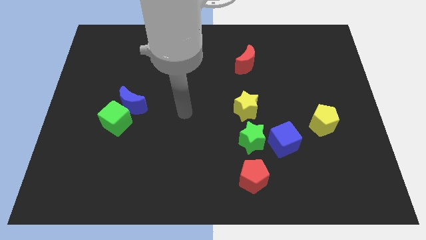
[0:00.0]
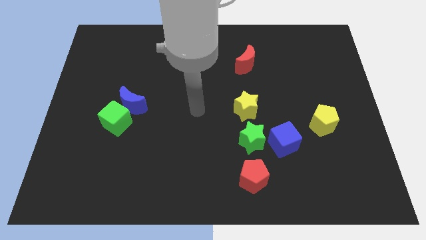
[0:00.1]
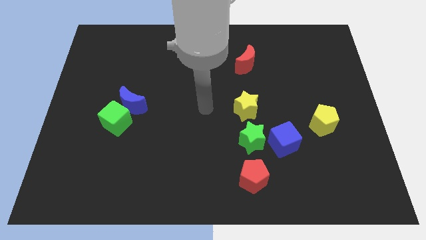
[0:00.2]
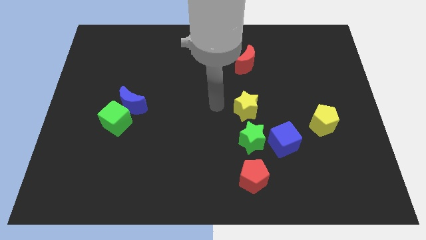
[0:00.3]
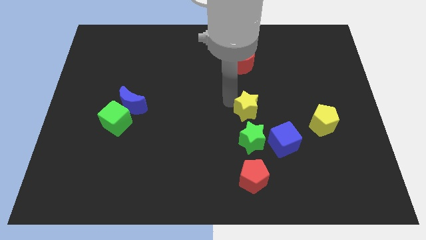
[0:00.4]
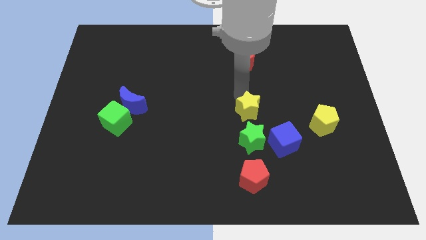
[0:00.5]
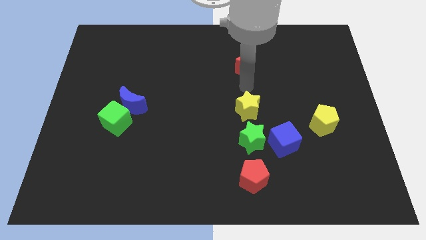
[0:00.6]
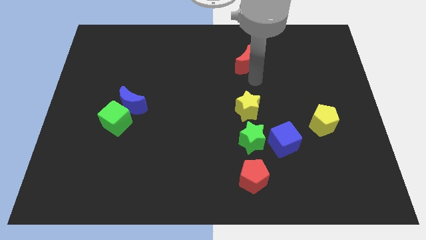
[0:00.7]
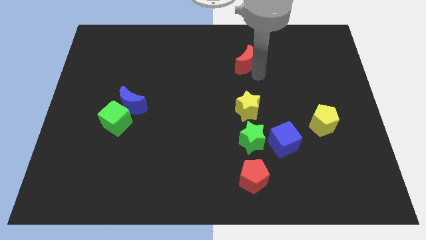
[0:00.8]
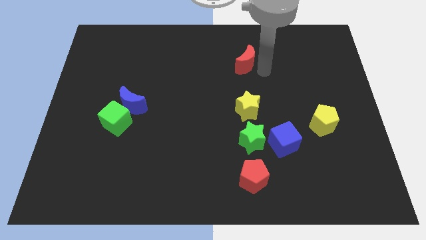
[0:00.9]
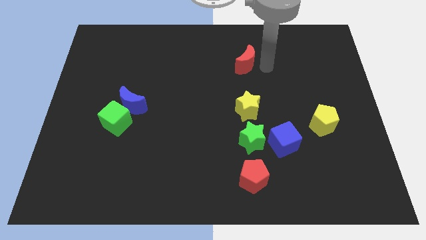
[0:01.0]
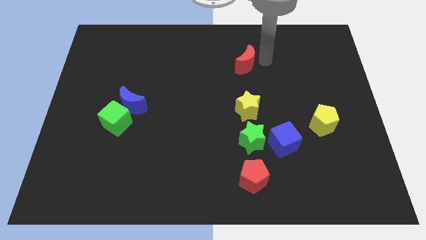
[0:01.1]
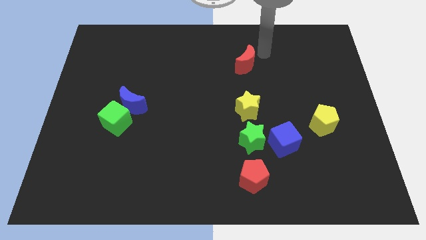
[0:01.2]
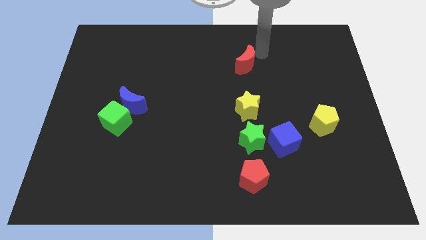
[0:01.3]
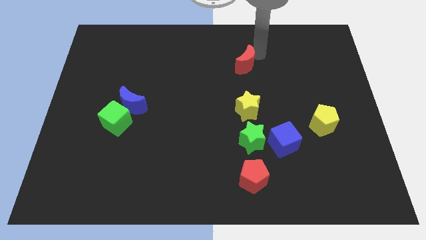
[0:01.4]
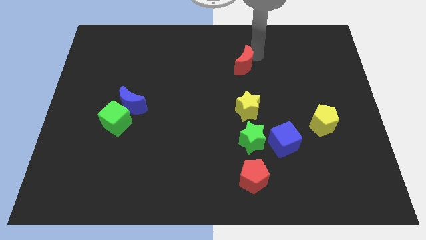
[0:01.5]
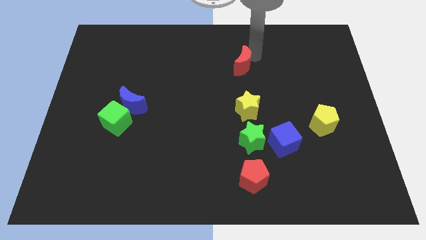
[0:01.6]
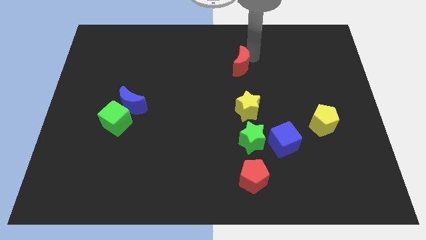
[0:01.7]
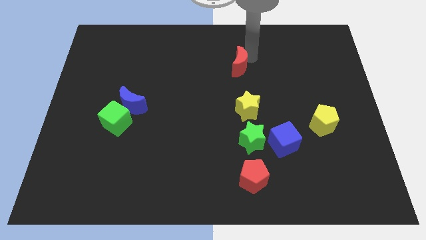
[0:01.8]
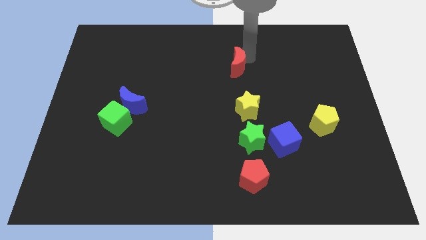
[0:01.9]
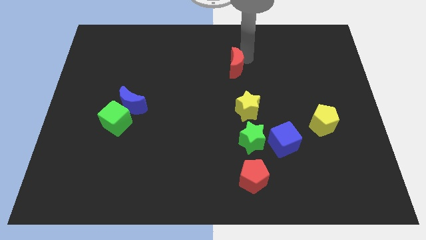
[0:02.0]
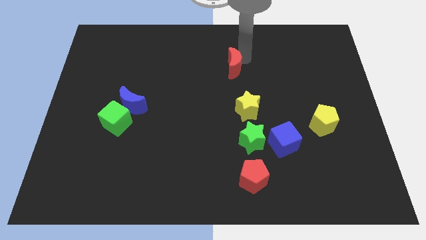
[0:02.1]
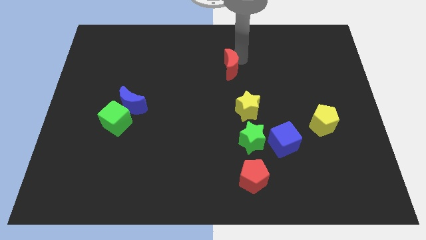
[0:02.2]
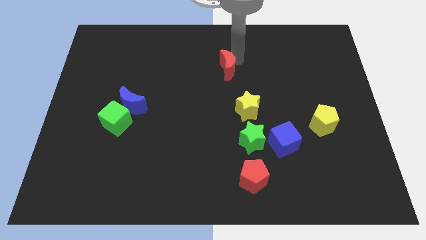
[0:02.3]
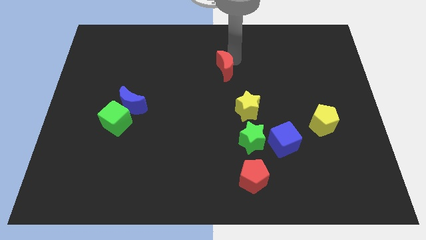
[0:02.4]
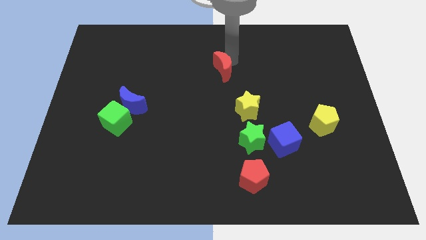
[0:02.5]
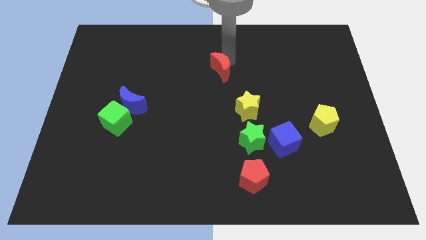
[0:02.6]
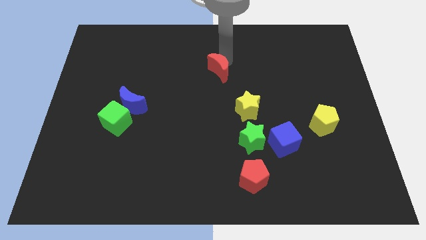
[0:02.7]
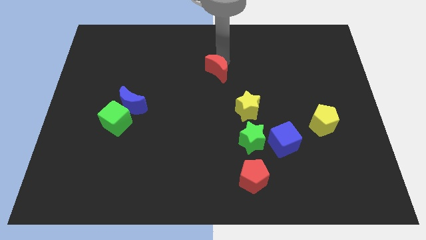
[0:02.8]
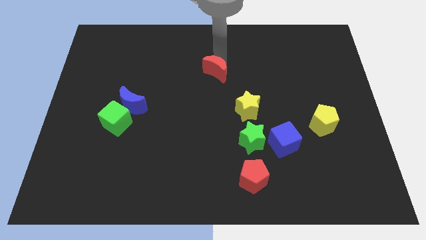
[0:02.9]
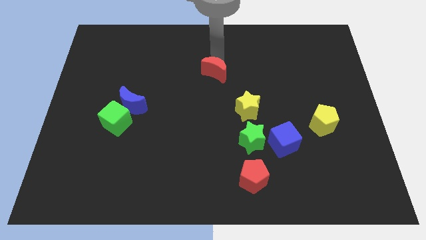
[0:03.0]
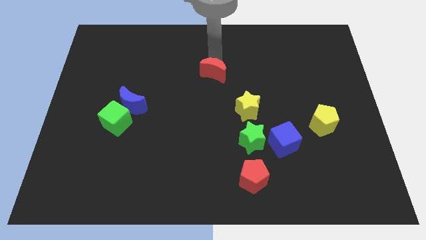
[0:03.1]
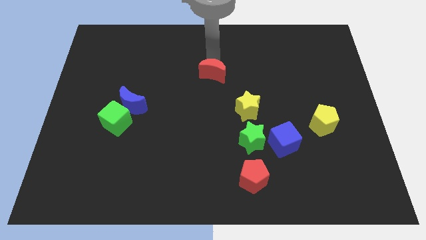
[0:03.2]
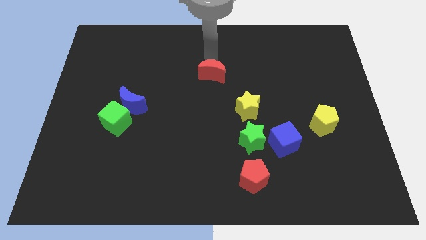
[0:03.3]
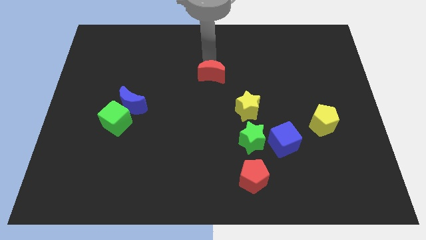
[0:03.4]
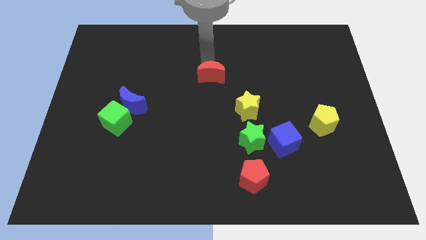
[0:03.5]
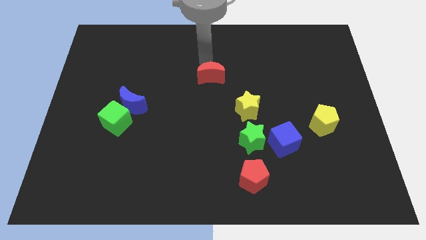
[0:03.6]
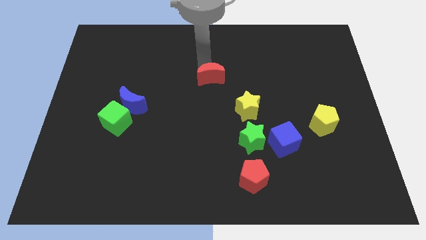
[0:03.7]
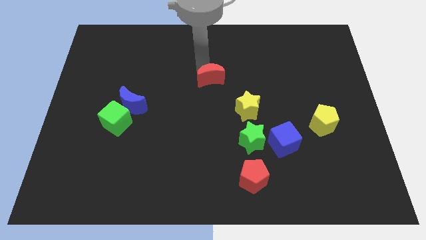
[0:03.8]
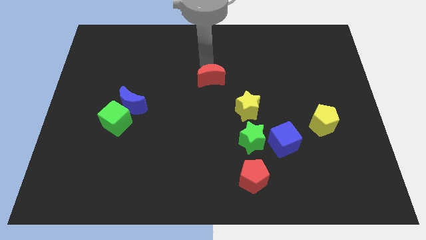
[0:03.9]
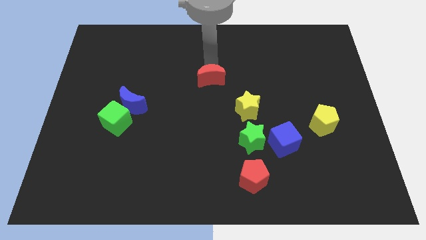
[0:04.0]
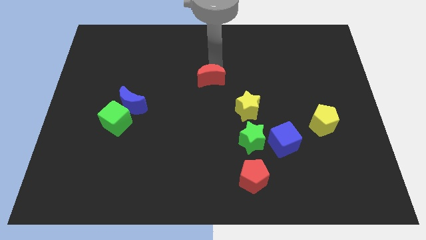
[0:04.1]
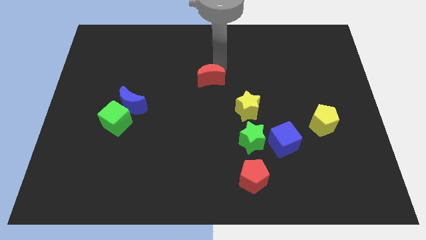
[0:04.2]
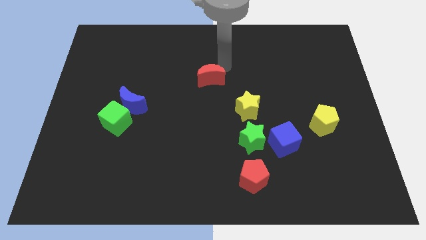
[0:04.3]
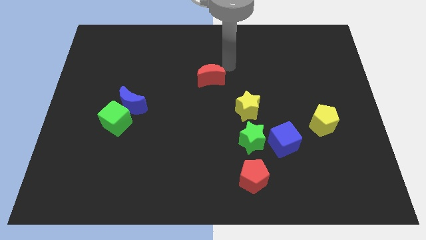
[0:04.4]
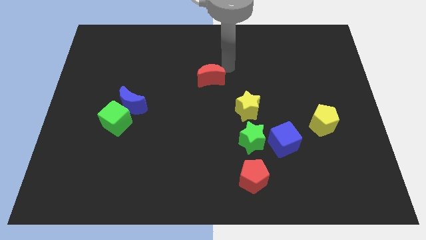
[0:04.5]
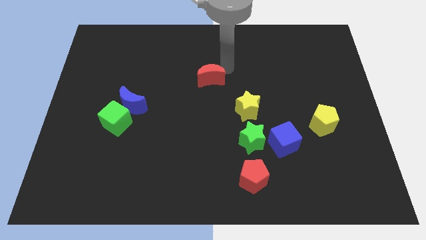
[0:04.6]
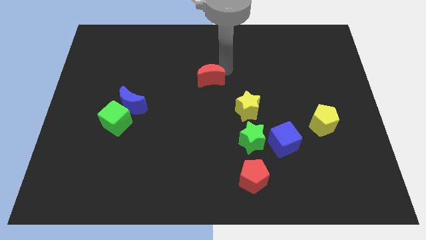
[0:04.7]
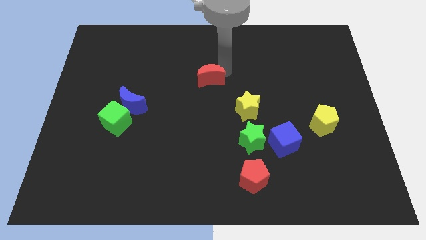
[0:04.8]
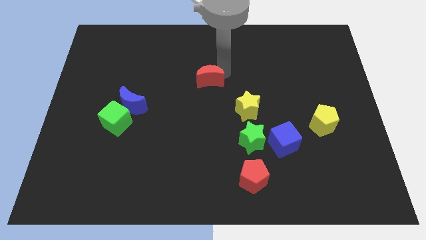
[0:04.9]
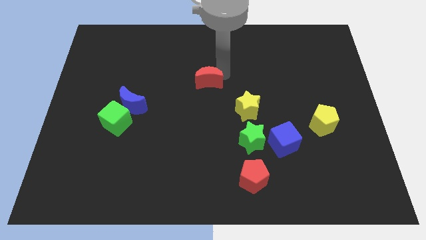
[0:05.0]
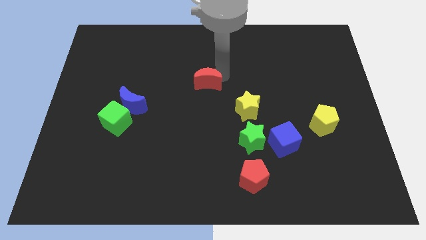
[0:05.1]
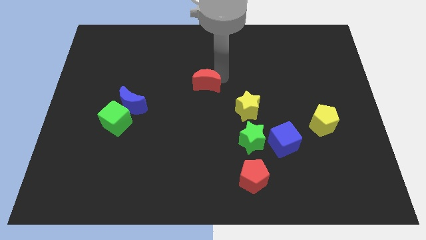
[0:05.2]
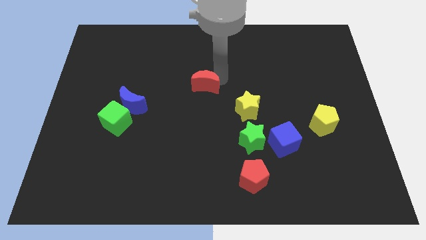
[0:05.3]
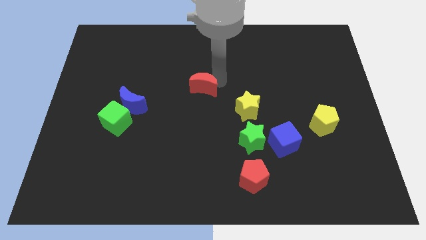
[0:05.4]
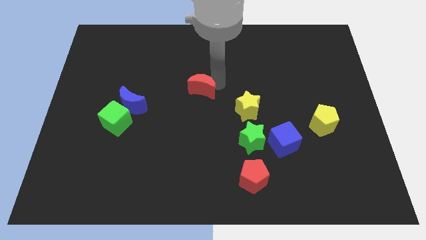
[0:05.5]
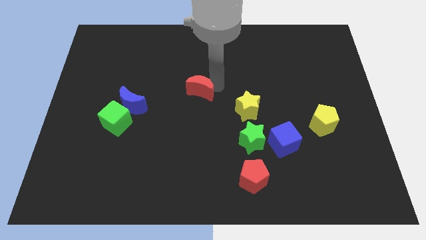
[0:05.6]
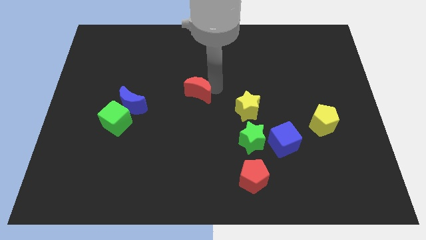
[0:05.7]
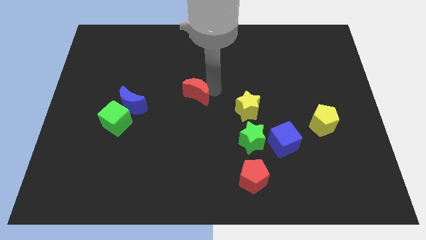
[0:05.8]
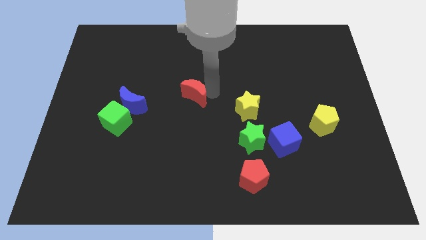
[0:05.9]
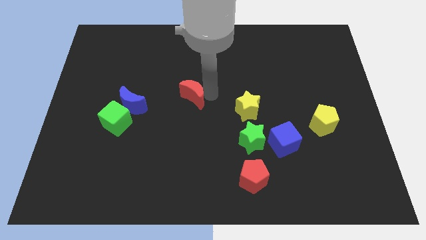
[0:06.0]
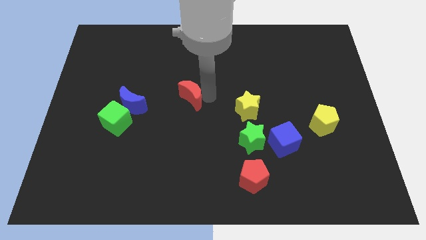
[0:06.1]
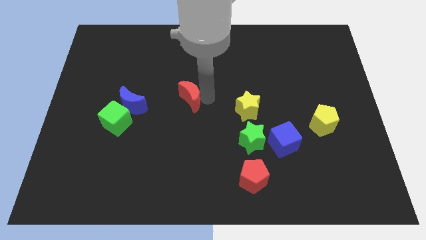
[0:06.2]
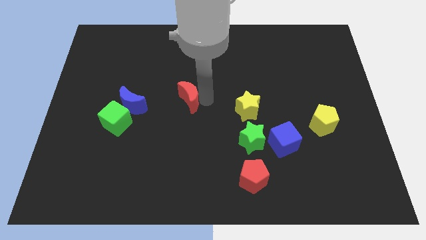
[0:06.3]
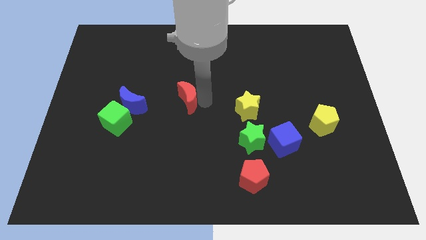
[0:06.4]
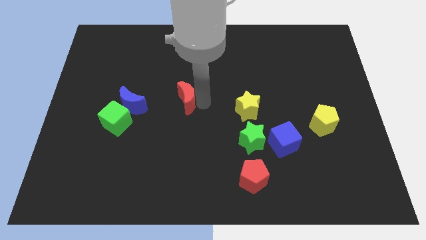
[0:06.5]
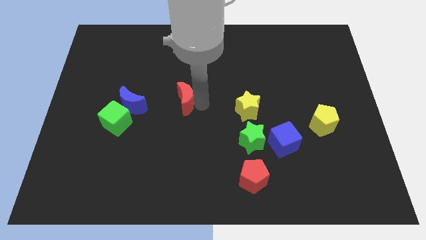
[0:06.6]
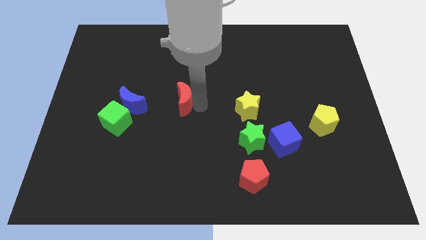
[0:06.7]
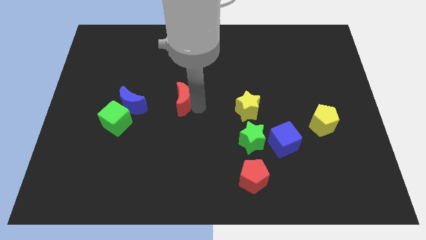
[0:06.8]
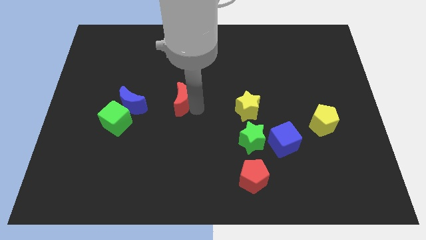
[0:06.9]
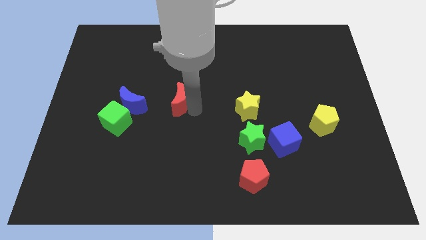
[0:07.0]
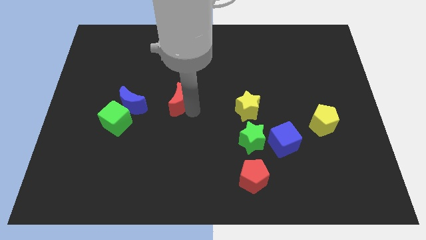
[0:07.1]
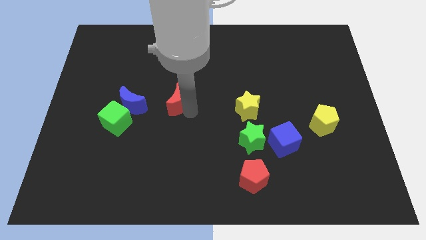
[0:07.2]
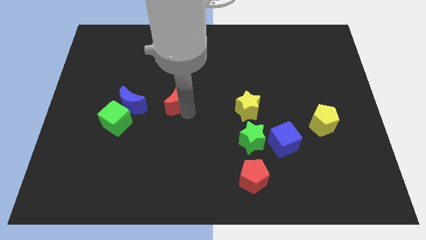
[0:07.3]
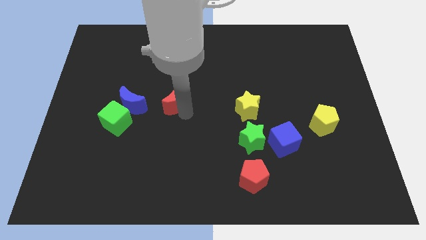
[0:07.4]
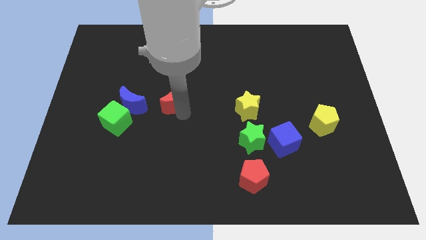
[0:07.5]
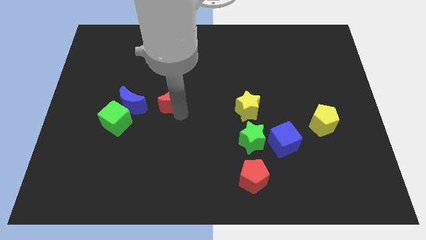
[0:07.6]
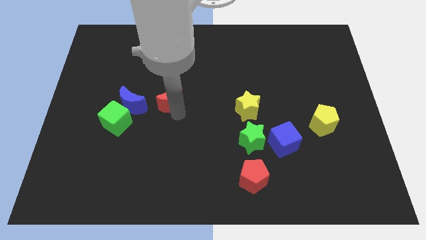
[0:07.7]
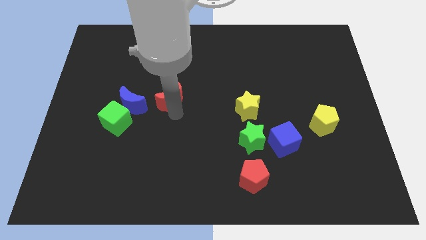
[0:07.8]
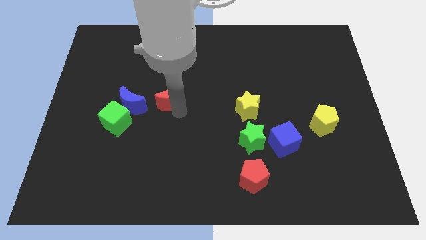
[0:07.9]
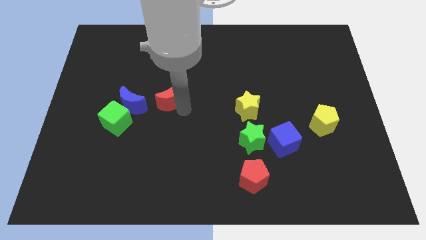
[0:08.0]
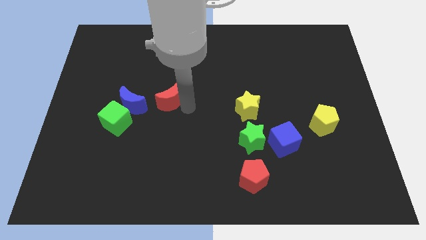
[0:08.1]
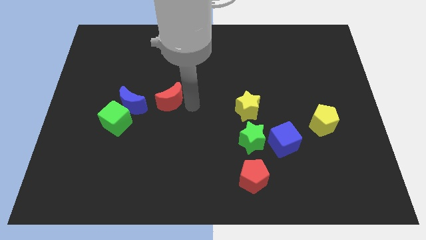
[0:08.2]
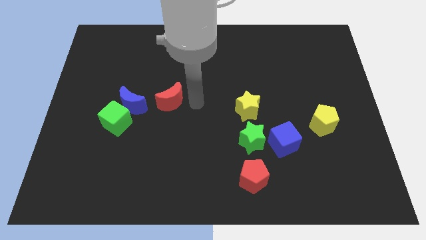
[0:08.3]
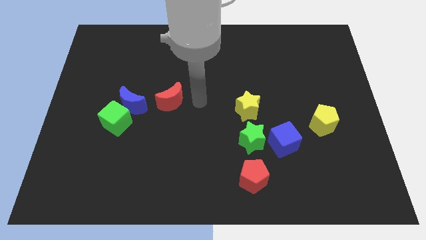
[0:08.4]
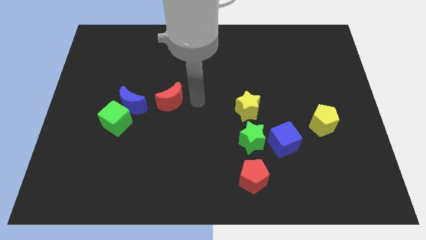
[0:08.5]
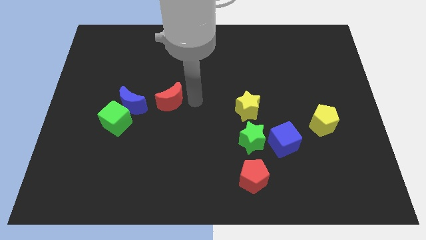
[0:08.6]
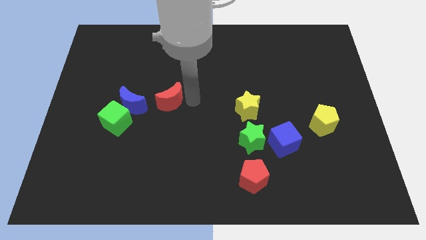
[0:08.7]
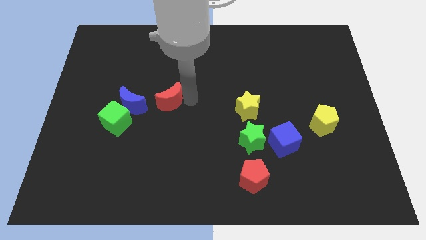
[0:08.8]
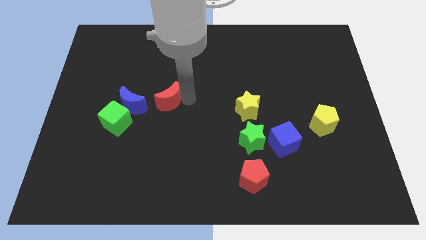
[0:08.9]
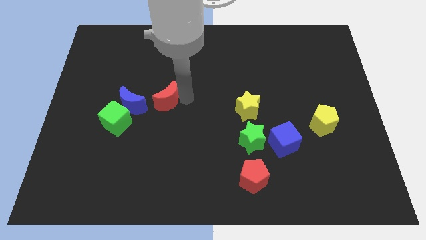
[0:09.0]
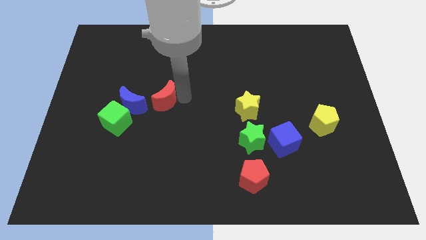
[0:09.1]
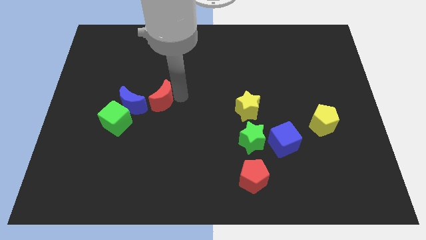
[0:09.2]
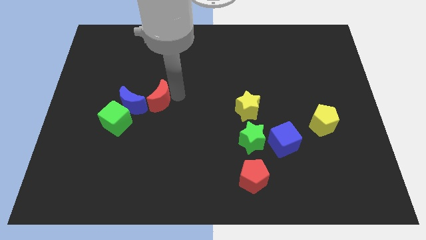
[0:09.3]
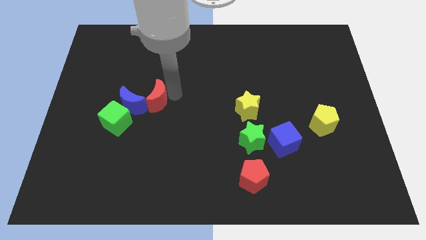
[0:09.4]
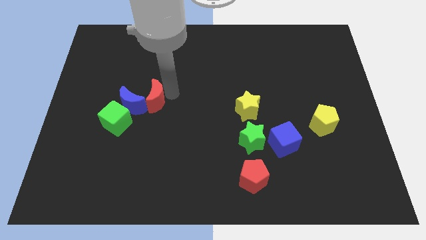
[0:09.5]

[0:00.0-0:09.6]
put the red moon close to the blue moon
